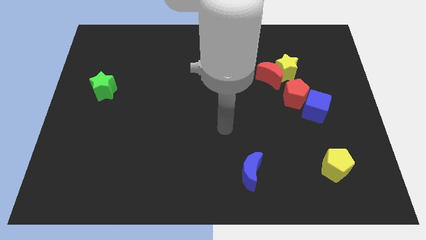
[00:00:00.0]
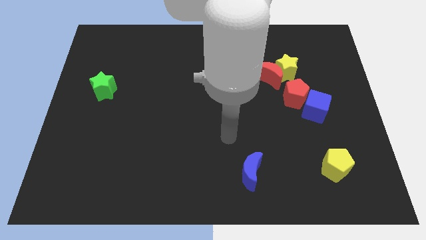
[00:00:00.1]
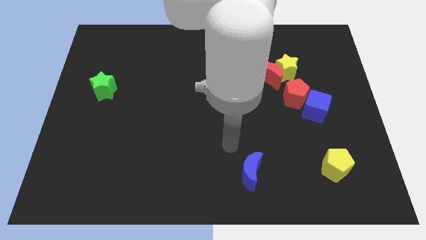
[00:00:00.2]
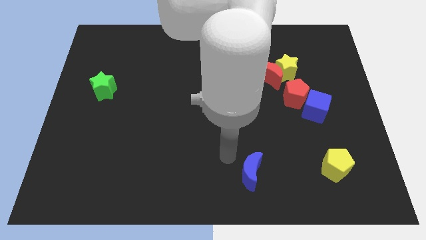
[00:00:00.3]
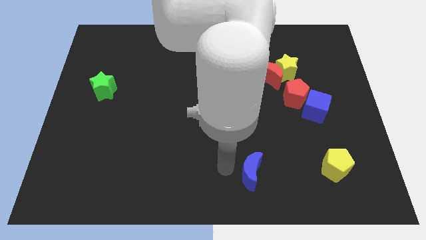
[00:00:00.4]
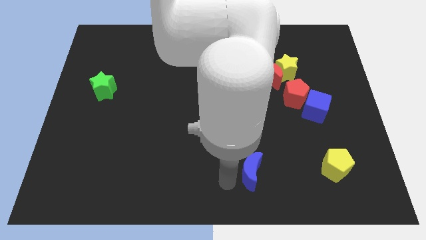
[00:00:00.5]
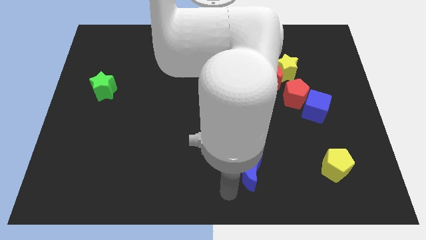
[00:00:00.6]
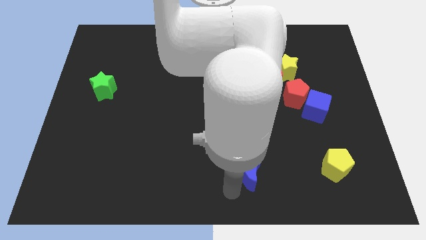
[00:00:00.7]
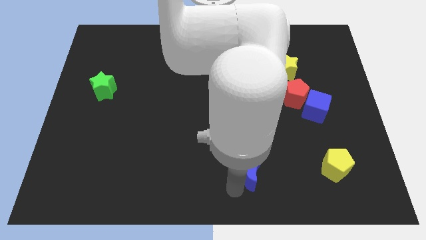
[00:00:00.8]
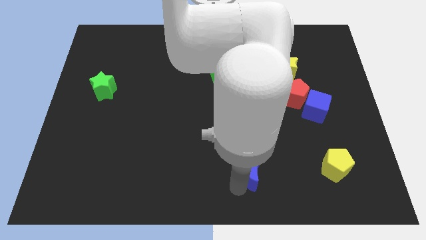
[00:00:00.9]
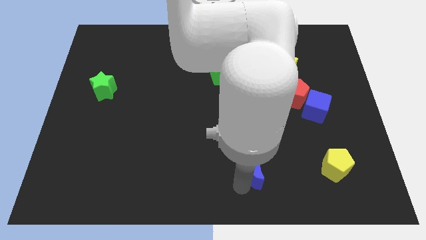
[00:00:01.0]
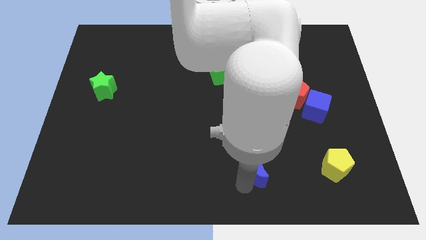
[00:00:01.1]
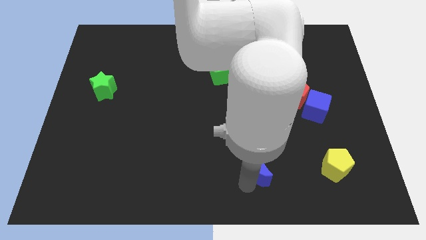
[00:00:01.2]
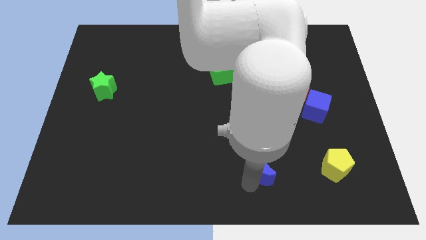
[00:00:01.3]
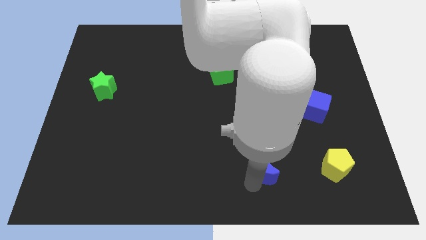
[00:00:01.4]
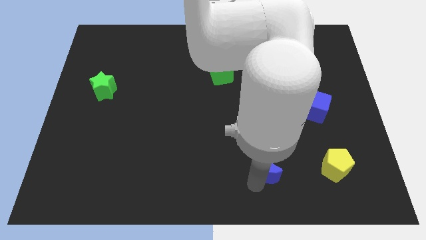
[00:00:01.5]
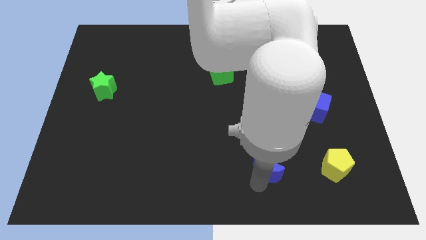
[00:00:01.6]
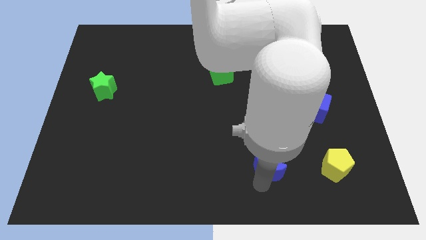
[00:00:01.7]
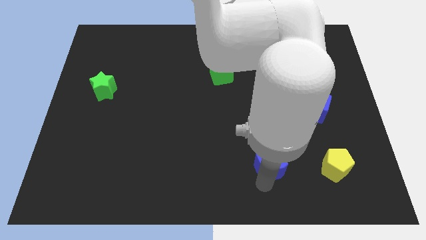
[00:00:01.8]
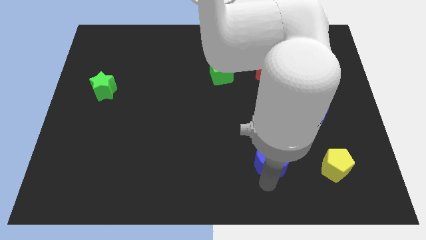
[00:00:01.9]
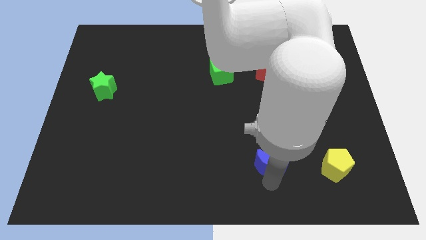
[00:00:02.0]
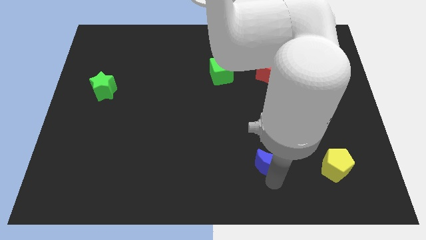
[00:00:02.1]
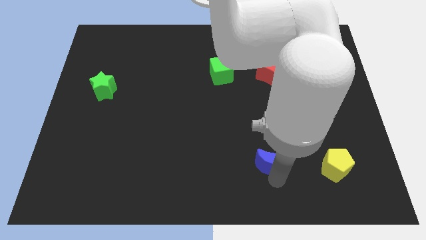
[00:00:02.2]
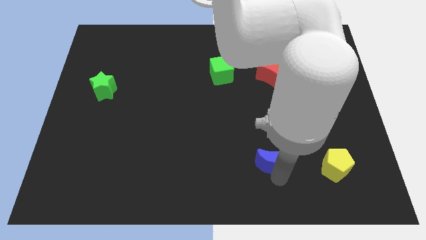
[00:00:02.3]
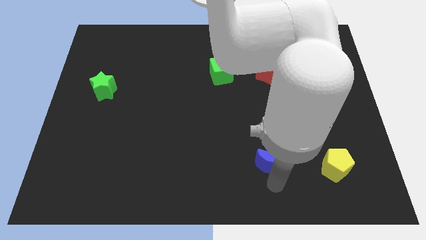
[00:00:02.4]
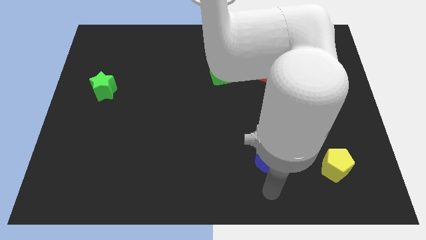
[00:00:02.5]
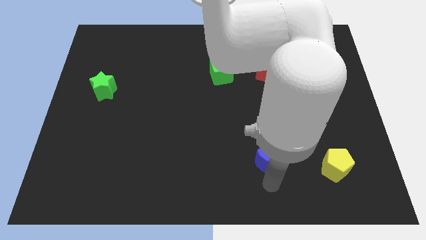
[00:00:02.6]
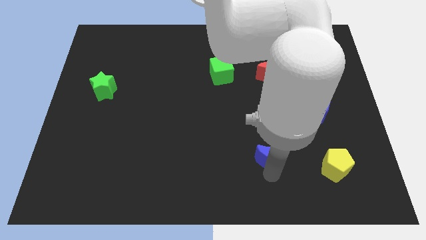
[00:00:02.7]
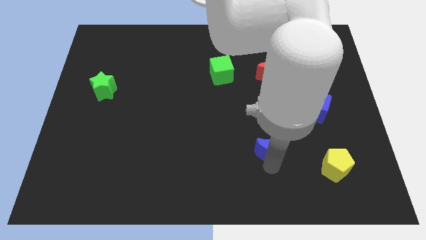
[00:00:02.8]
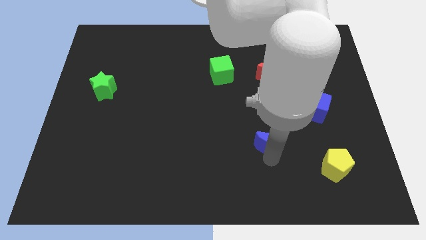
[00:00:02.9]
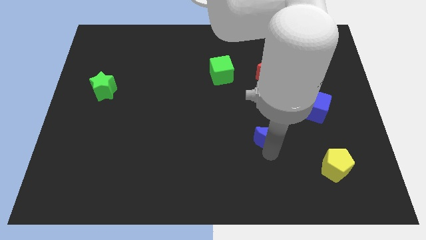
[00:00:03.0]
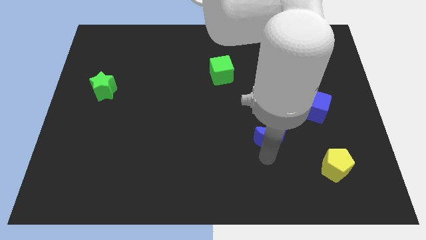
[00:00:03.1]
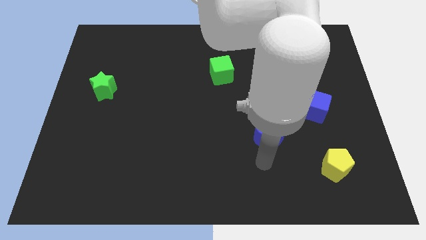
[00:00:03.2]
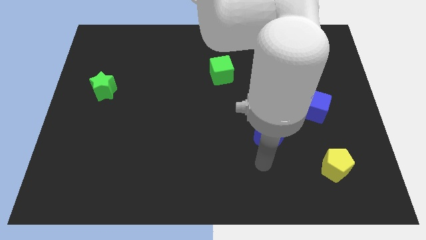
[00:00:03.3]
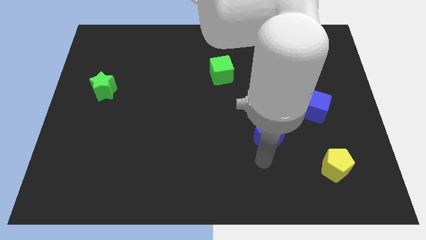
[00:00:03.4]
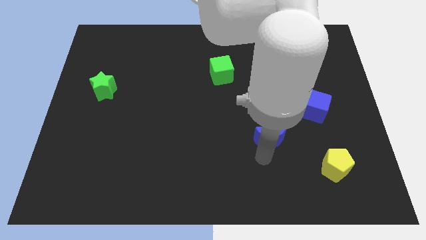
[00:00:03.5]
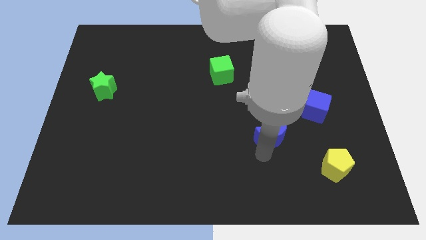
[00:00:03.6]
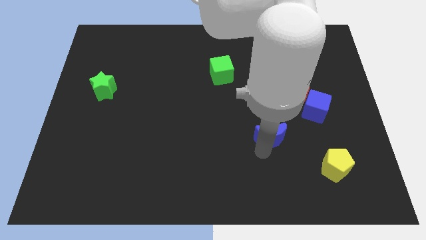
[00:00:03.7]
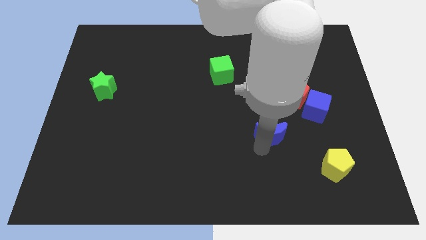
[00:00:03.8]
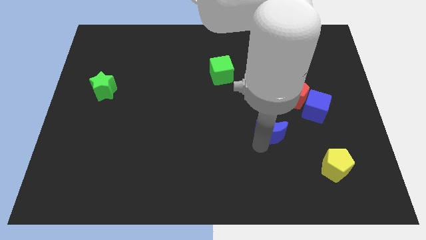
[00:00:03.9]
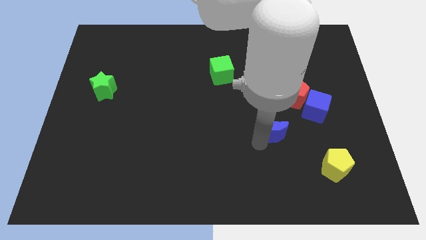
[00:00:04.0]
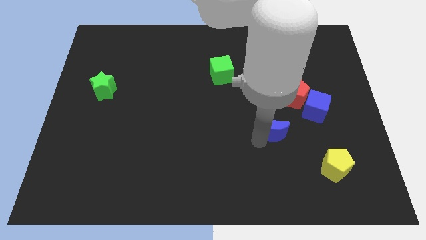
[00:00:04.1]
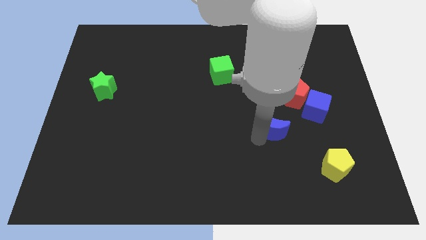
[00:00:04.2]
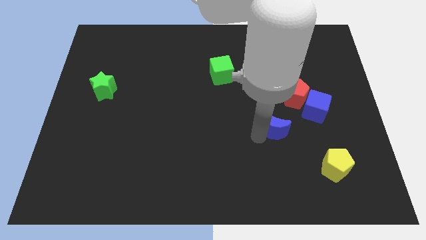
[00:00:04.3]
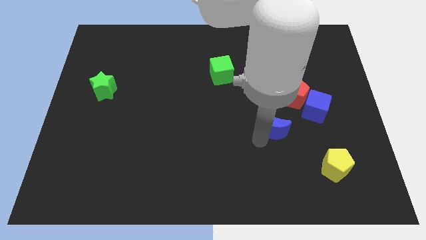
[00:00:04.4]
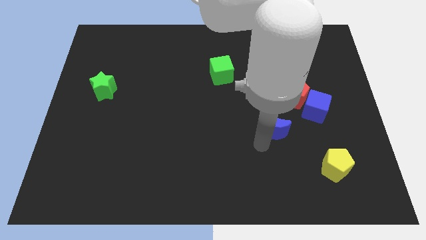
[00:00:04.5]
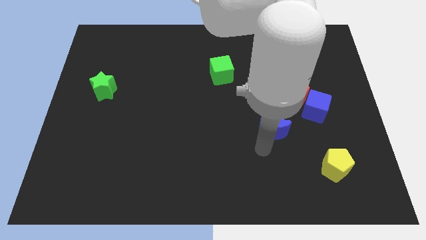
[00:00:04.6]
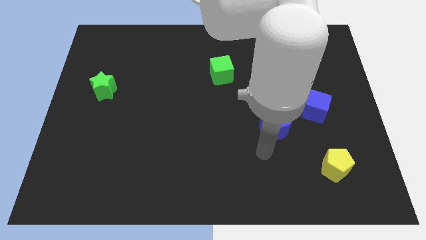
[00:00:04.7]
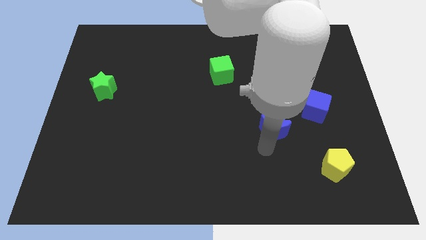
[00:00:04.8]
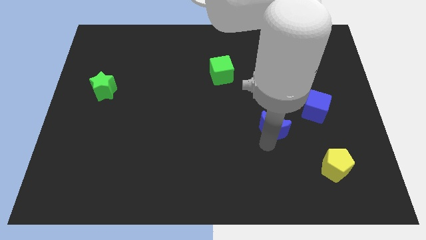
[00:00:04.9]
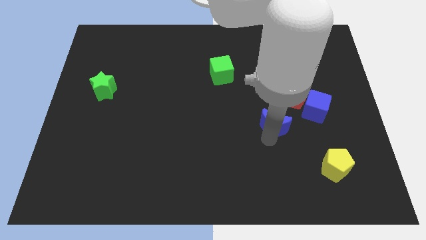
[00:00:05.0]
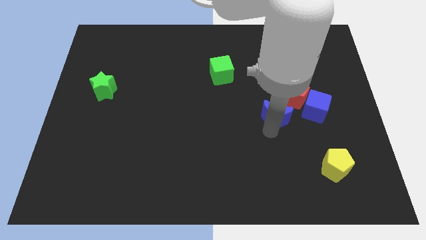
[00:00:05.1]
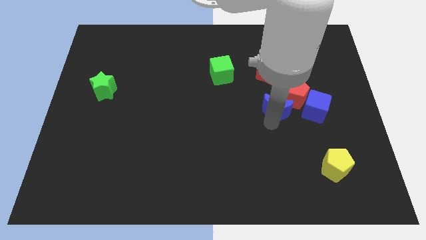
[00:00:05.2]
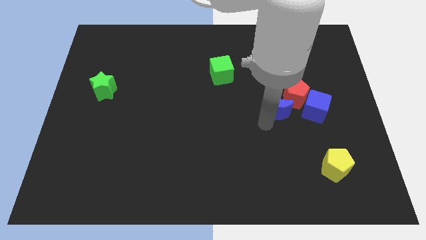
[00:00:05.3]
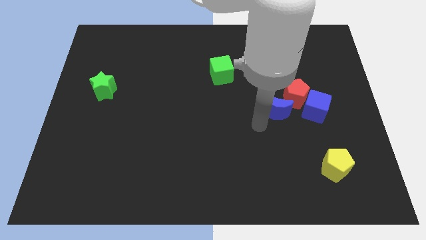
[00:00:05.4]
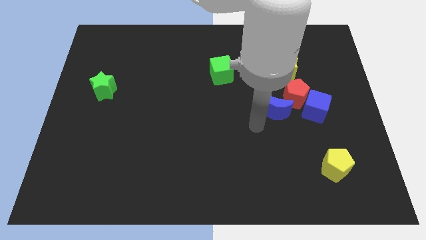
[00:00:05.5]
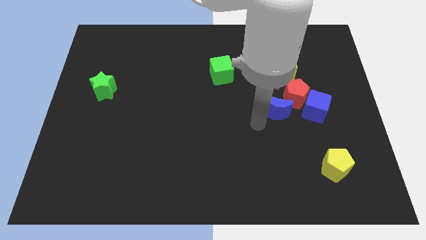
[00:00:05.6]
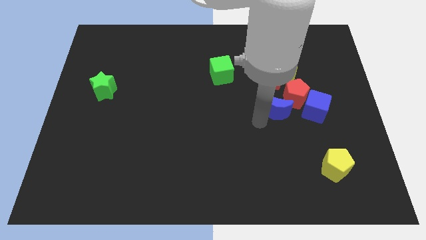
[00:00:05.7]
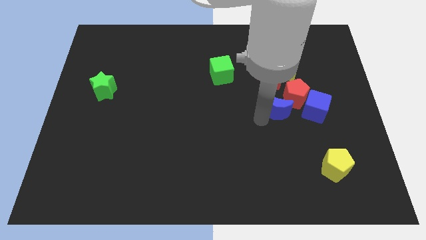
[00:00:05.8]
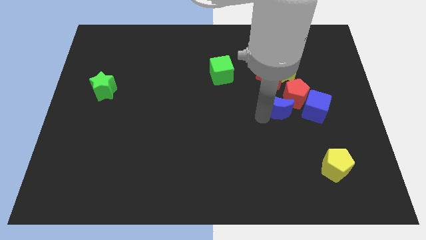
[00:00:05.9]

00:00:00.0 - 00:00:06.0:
push the blue moon to the red pentagon
